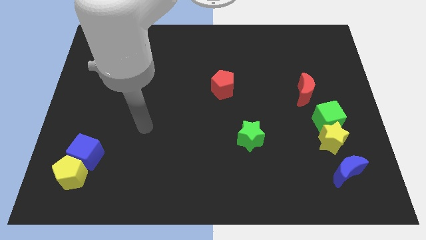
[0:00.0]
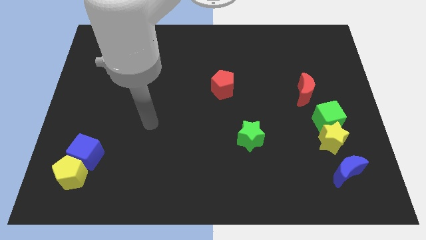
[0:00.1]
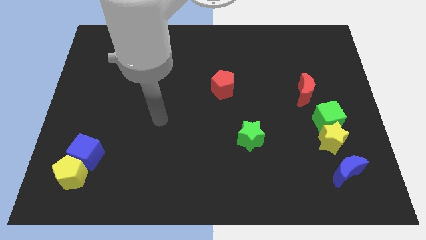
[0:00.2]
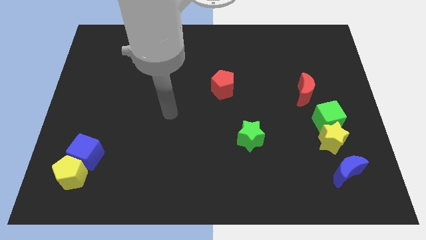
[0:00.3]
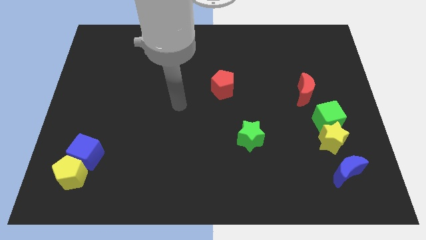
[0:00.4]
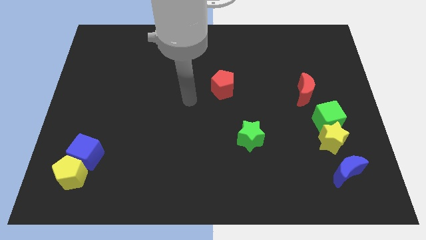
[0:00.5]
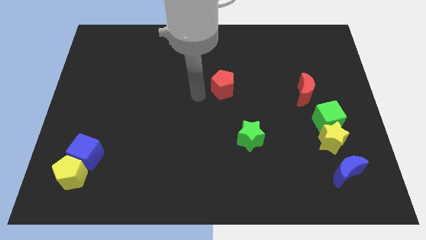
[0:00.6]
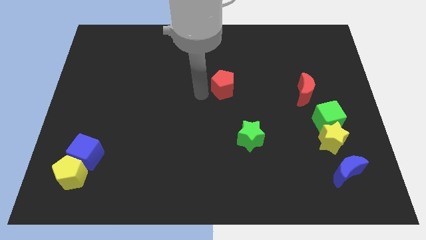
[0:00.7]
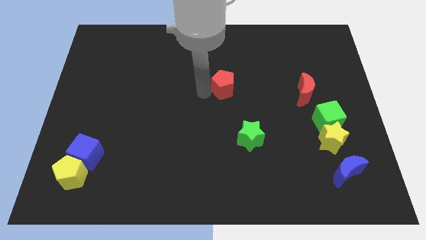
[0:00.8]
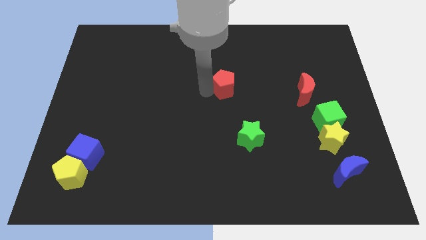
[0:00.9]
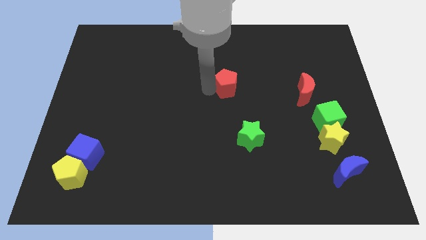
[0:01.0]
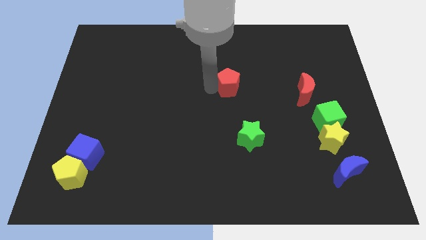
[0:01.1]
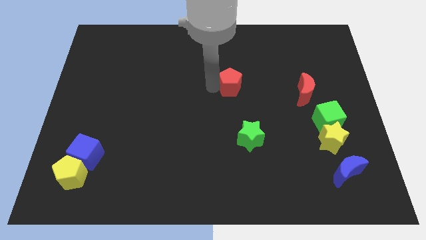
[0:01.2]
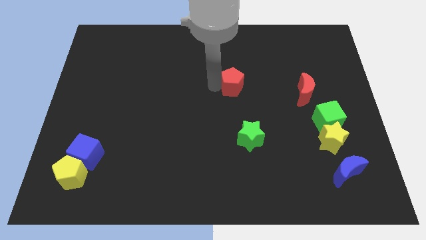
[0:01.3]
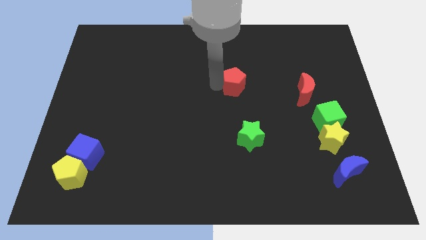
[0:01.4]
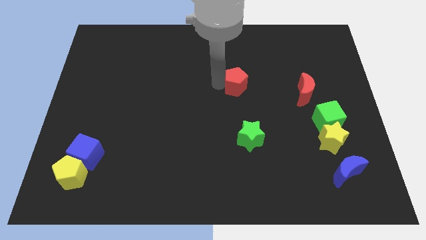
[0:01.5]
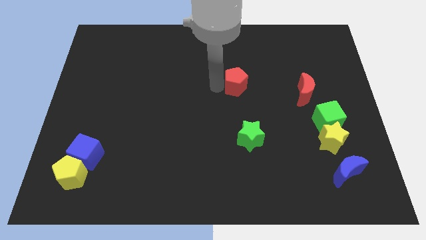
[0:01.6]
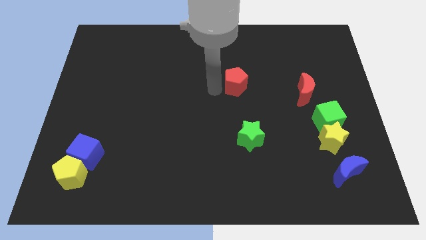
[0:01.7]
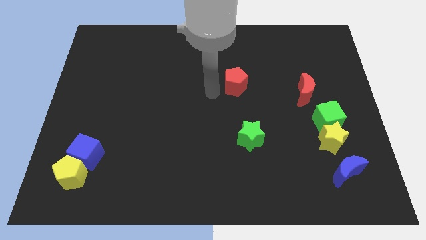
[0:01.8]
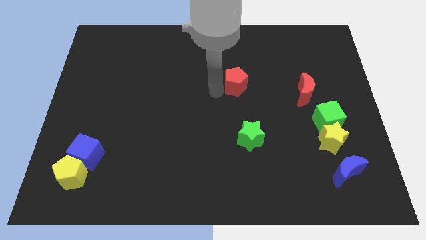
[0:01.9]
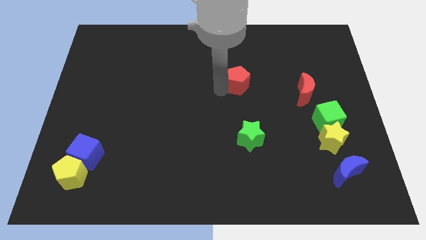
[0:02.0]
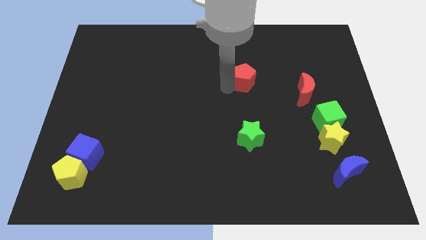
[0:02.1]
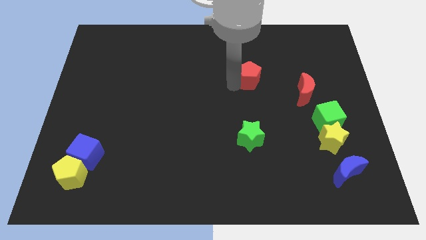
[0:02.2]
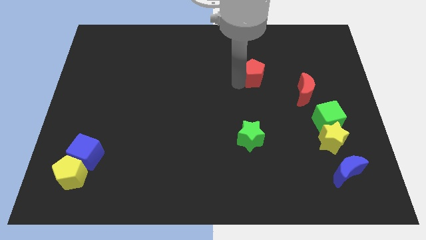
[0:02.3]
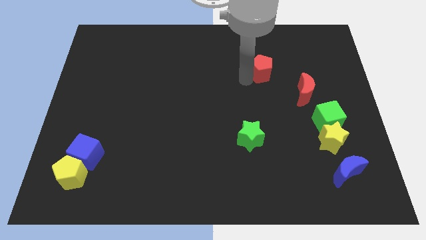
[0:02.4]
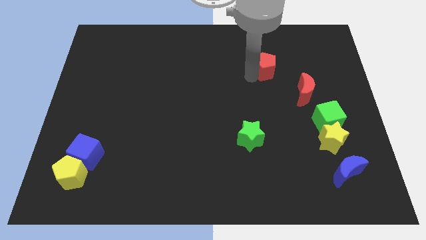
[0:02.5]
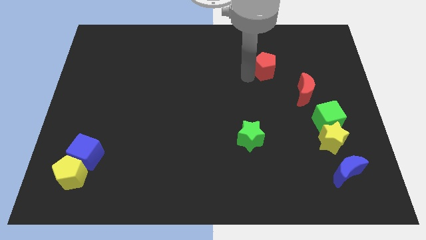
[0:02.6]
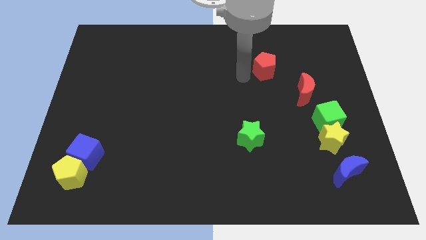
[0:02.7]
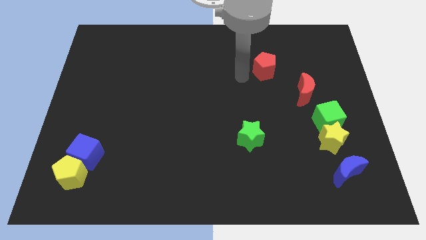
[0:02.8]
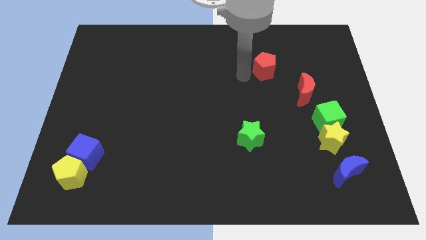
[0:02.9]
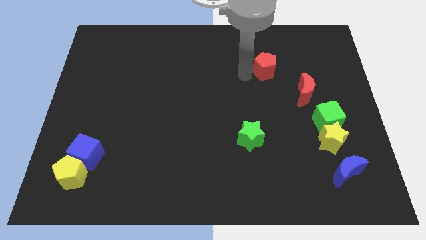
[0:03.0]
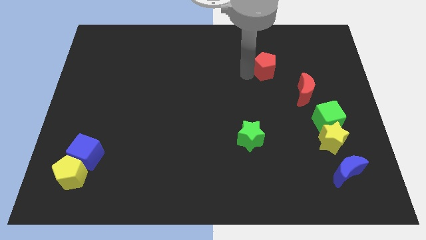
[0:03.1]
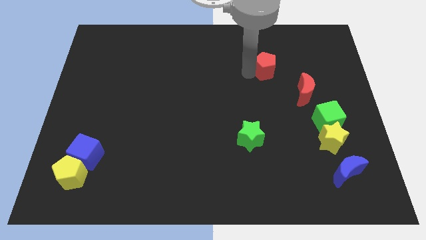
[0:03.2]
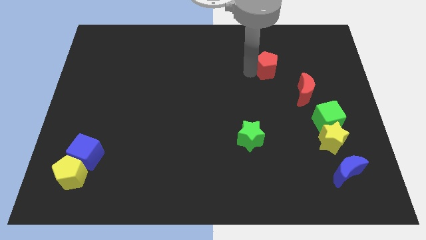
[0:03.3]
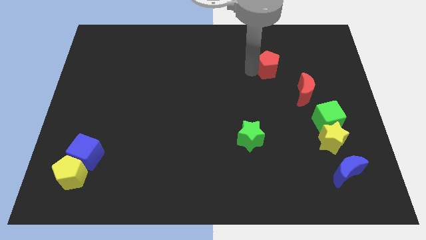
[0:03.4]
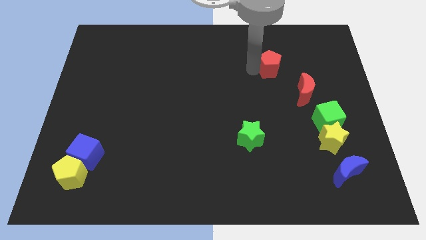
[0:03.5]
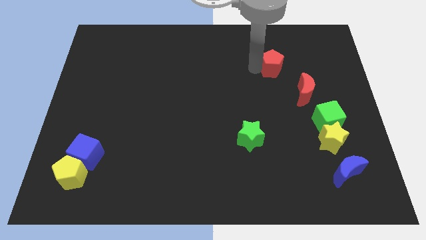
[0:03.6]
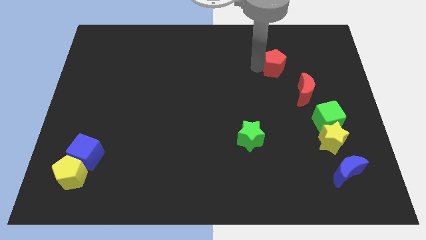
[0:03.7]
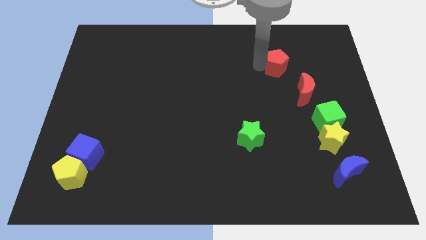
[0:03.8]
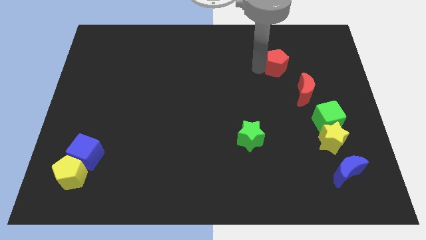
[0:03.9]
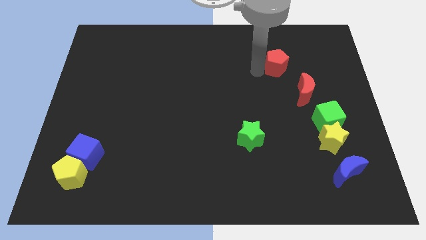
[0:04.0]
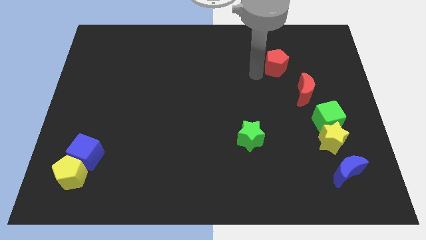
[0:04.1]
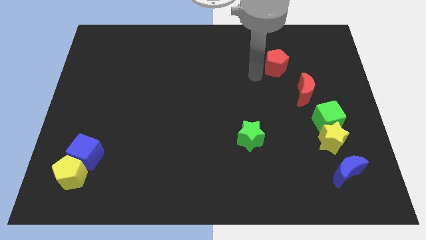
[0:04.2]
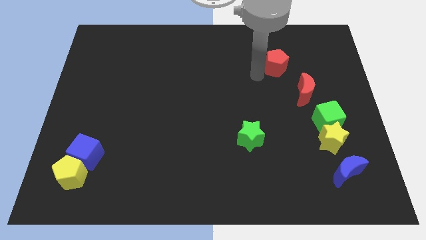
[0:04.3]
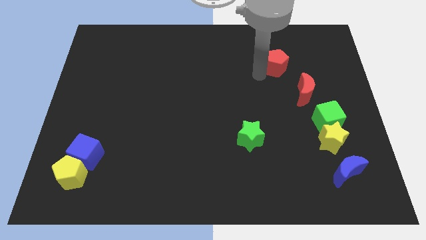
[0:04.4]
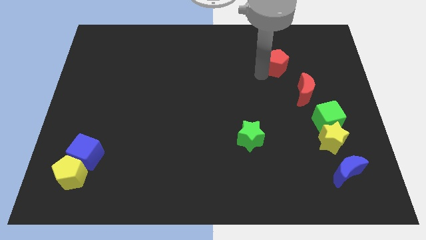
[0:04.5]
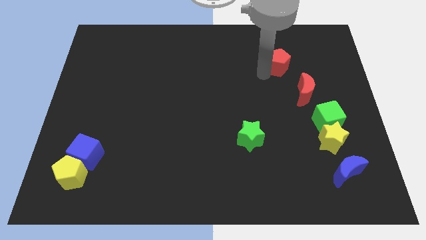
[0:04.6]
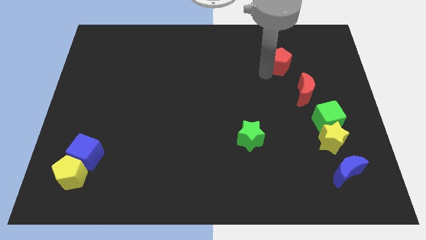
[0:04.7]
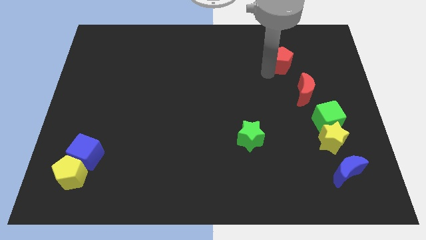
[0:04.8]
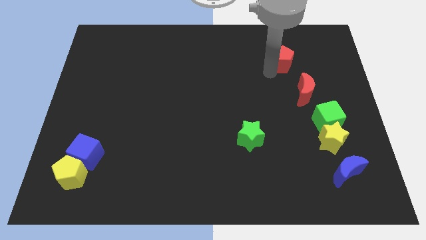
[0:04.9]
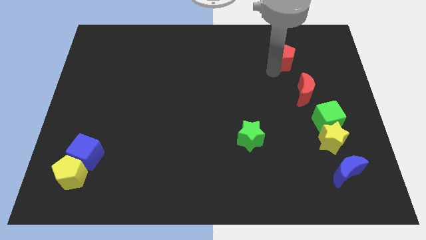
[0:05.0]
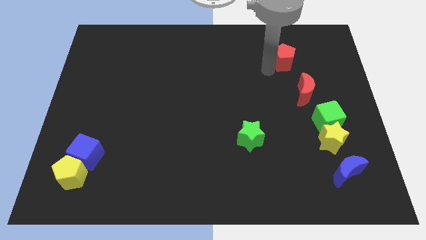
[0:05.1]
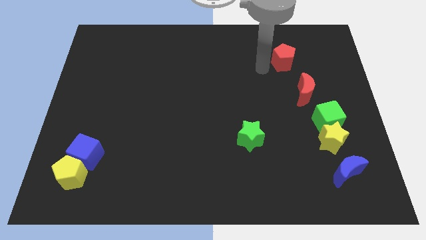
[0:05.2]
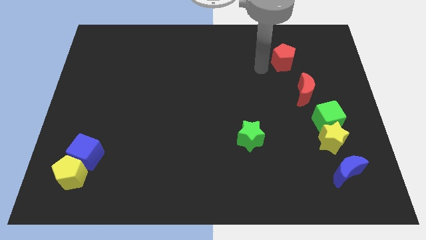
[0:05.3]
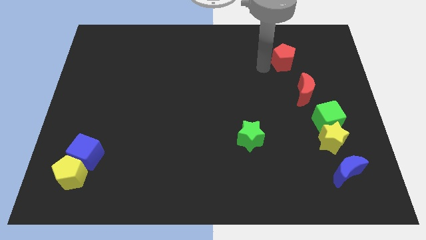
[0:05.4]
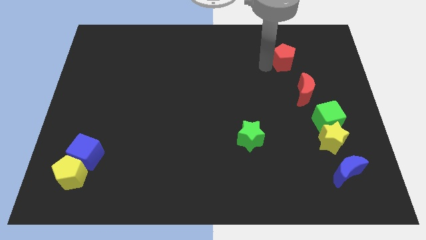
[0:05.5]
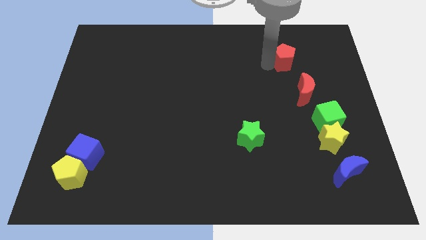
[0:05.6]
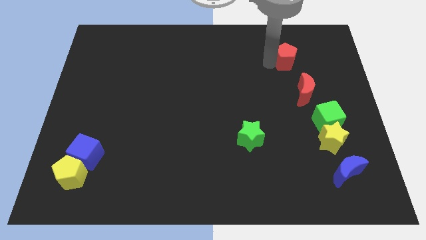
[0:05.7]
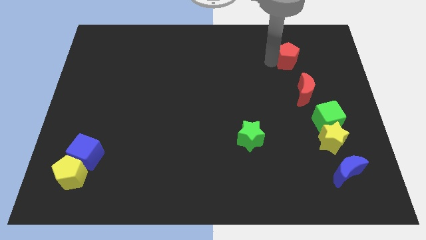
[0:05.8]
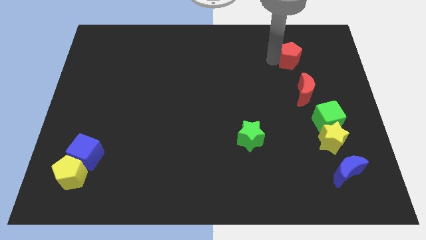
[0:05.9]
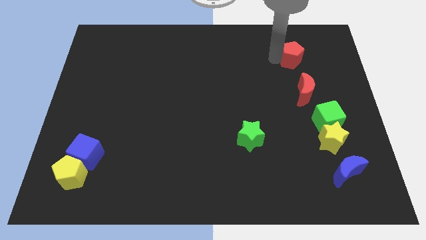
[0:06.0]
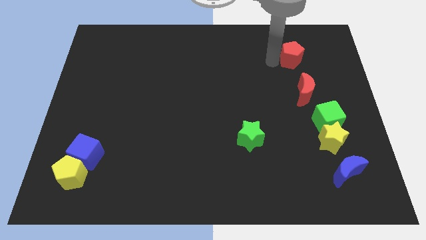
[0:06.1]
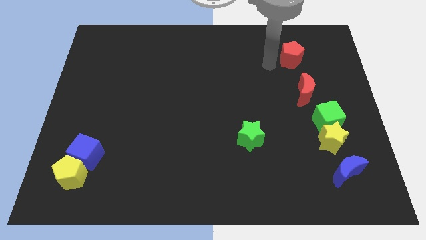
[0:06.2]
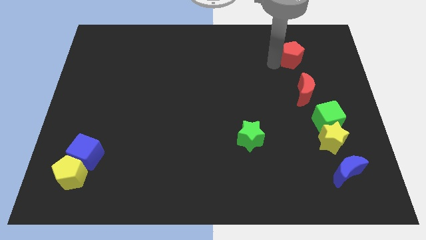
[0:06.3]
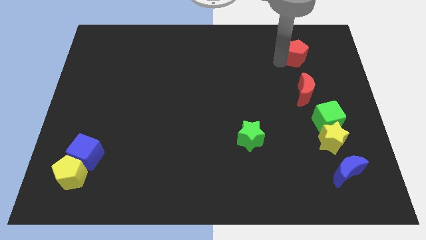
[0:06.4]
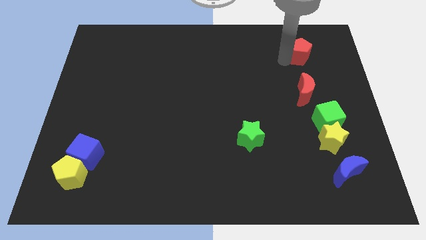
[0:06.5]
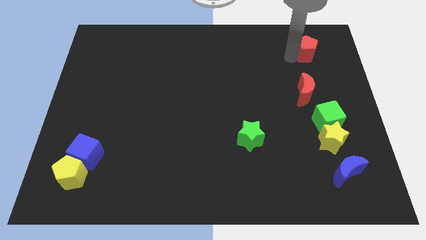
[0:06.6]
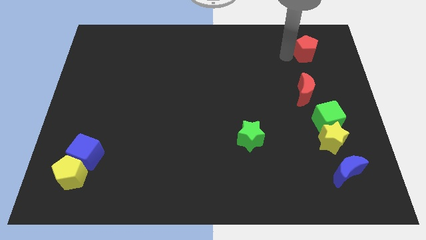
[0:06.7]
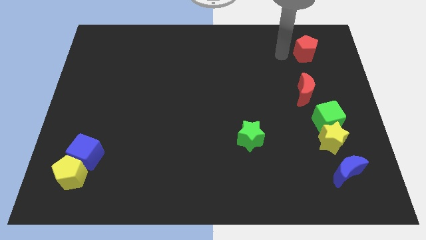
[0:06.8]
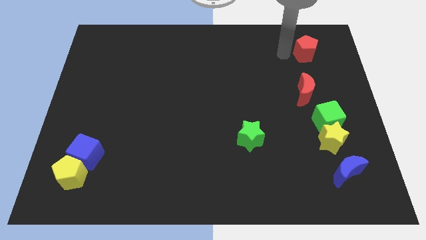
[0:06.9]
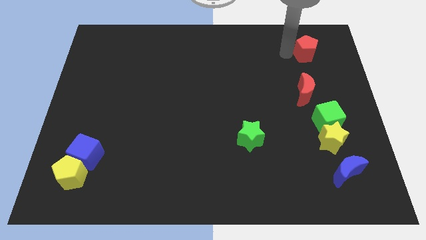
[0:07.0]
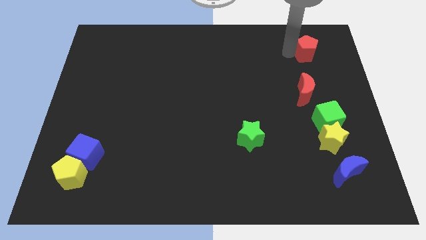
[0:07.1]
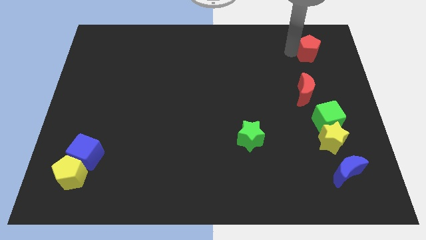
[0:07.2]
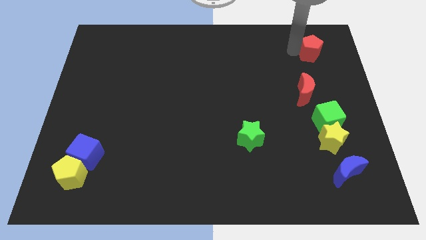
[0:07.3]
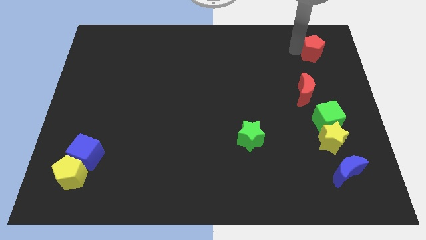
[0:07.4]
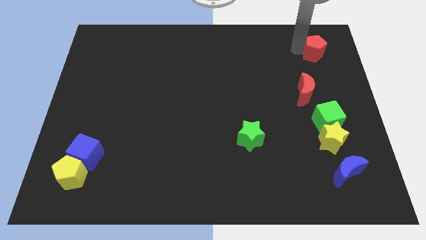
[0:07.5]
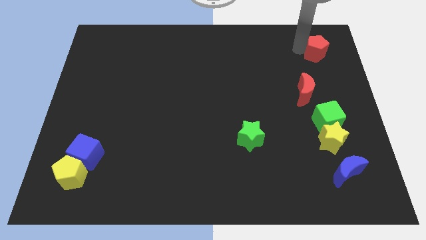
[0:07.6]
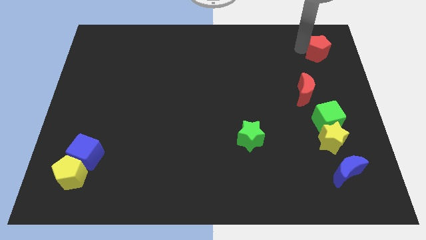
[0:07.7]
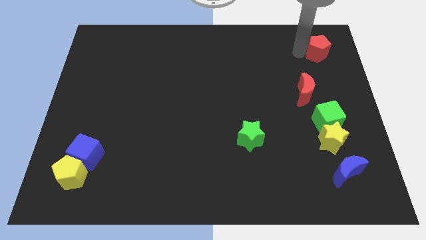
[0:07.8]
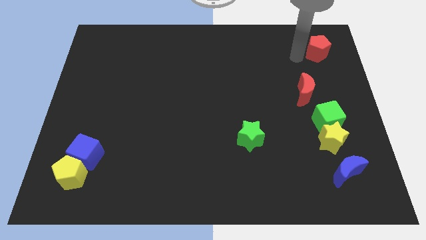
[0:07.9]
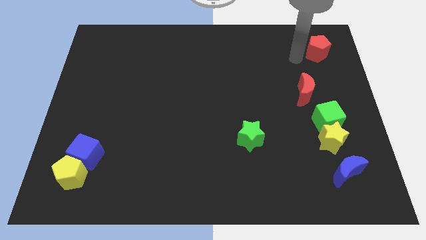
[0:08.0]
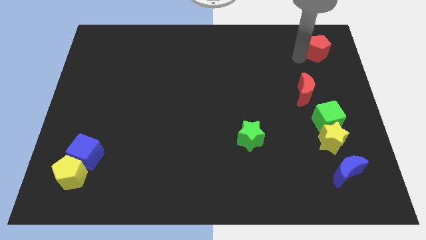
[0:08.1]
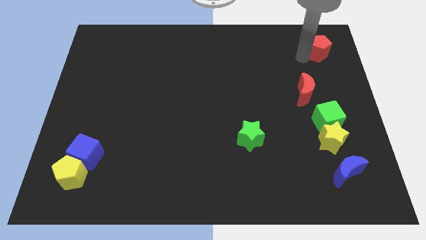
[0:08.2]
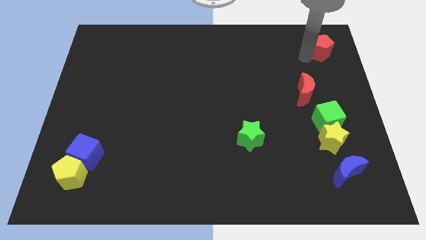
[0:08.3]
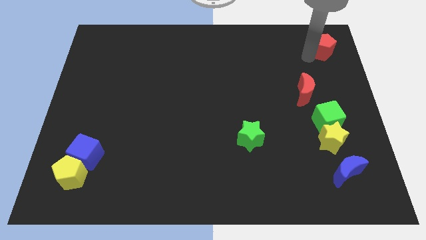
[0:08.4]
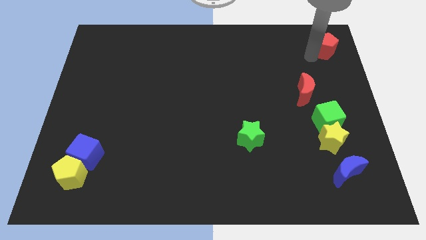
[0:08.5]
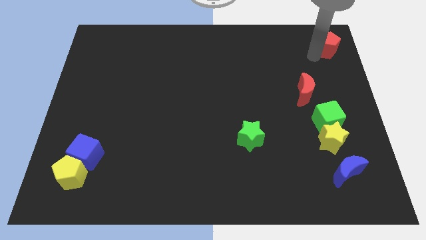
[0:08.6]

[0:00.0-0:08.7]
put the red pentagon to the top right of the board
